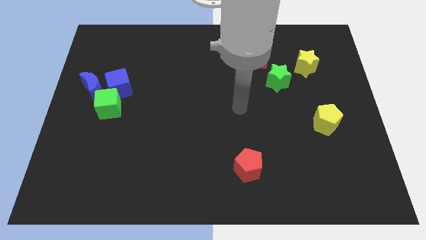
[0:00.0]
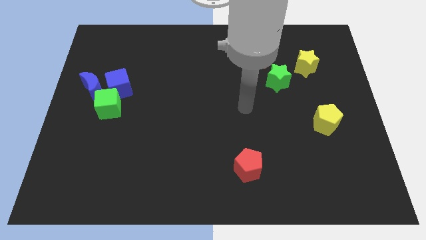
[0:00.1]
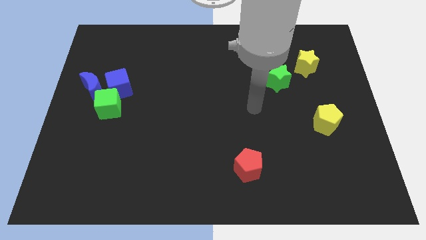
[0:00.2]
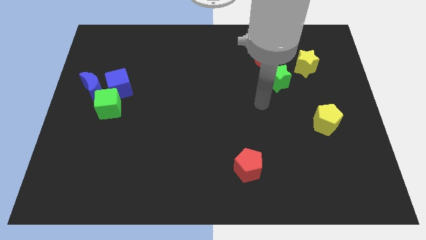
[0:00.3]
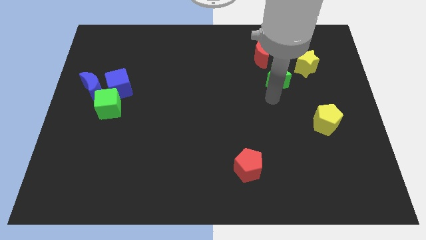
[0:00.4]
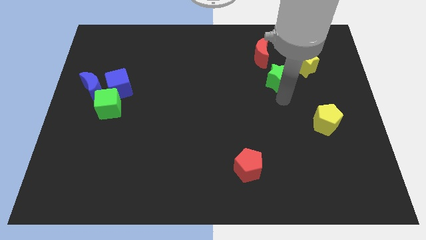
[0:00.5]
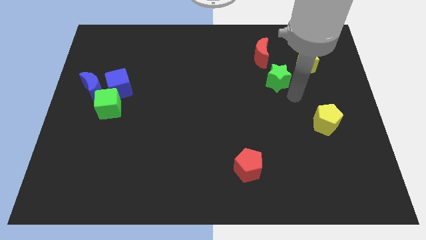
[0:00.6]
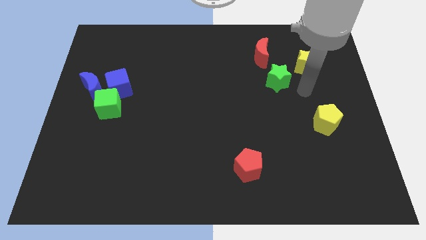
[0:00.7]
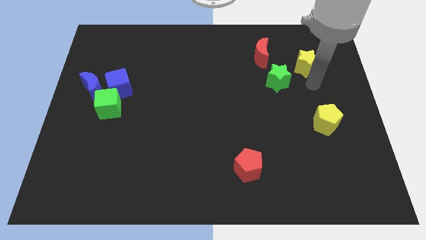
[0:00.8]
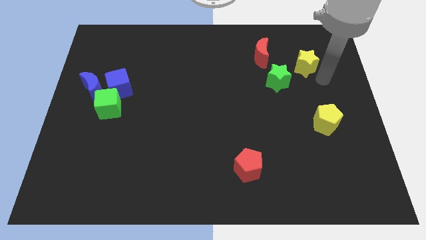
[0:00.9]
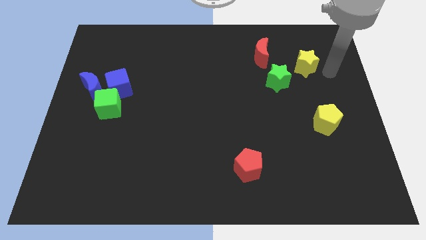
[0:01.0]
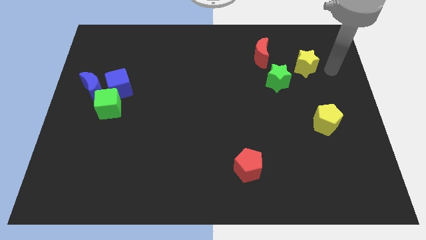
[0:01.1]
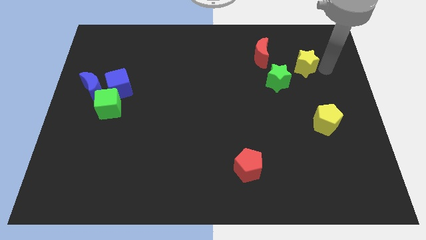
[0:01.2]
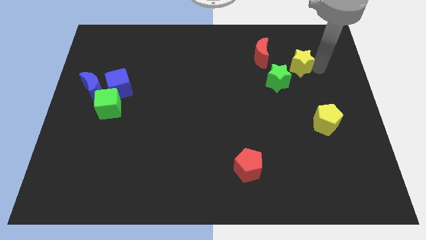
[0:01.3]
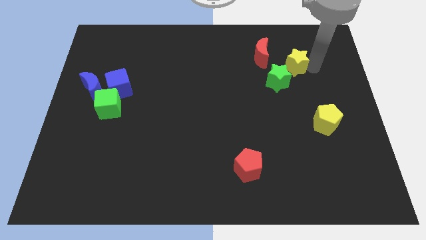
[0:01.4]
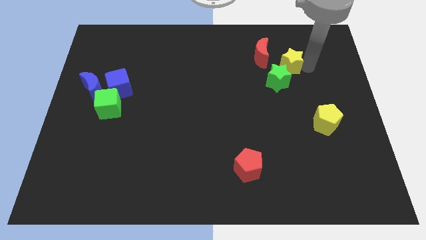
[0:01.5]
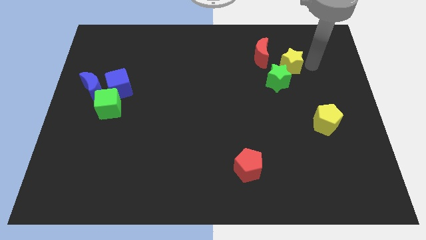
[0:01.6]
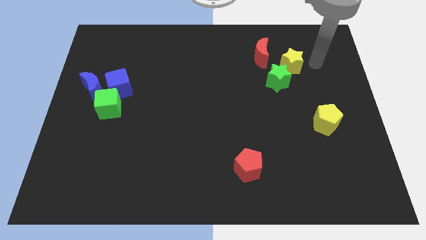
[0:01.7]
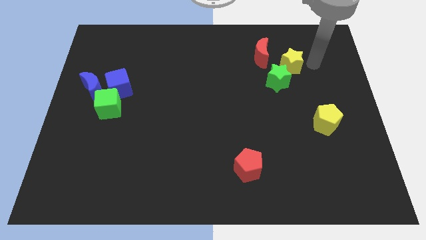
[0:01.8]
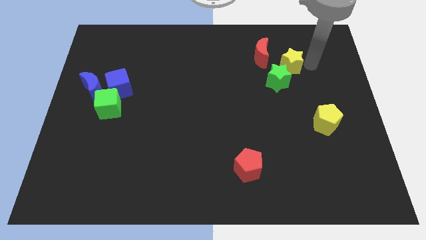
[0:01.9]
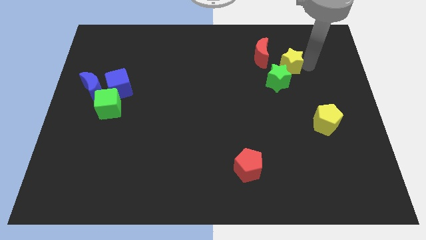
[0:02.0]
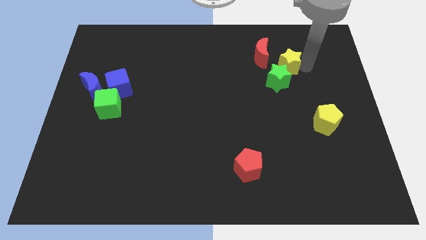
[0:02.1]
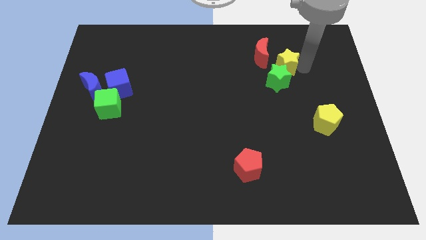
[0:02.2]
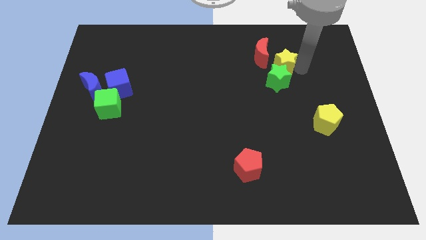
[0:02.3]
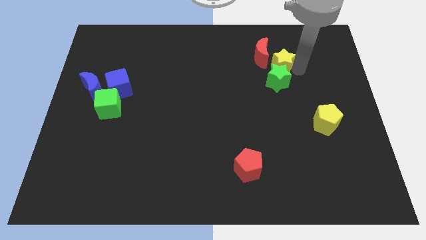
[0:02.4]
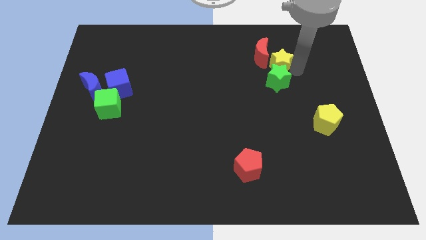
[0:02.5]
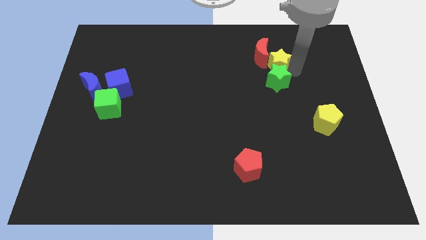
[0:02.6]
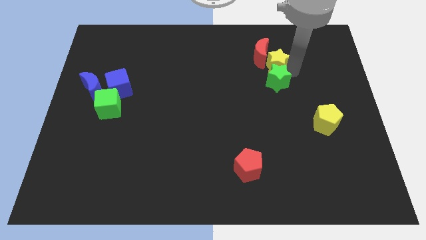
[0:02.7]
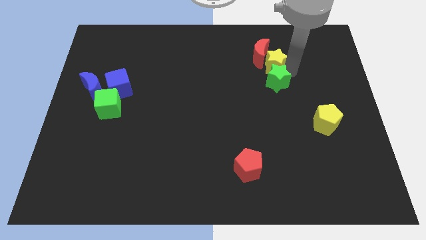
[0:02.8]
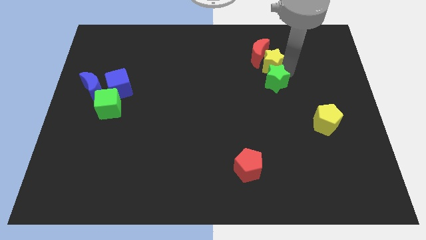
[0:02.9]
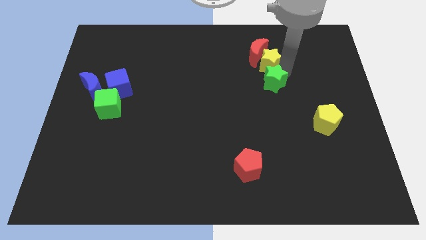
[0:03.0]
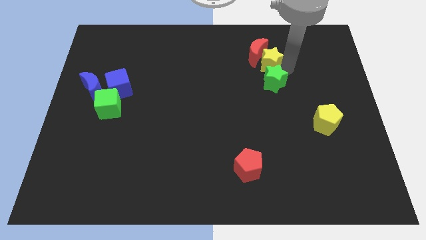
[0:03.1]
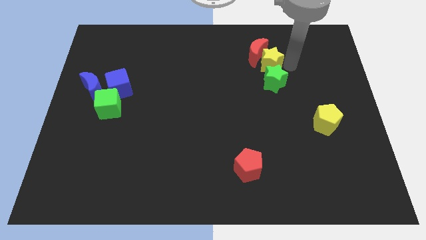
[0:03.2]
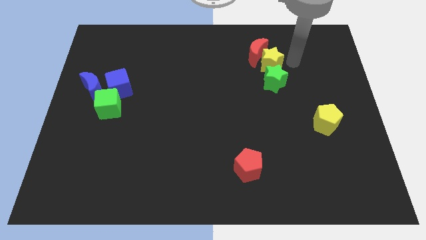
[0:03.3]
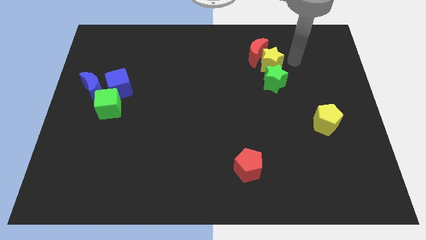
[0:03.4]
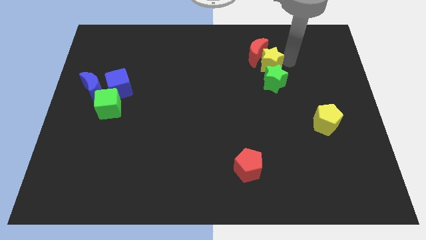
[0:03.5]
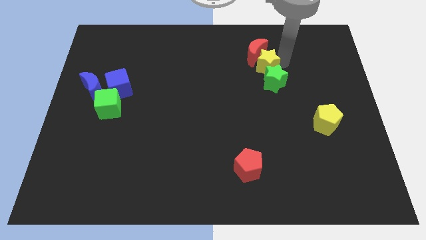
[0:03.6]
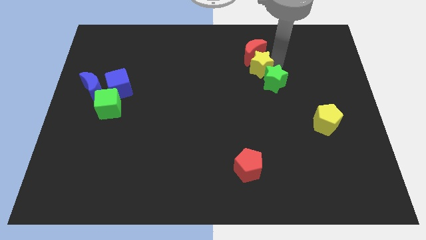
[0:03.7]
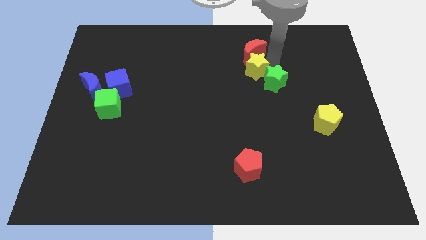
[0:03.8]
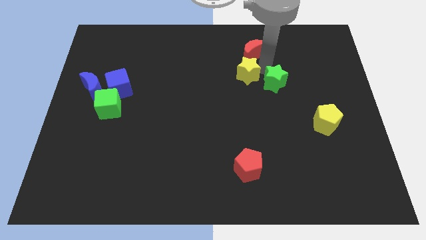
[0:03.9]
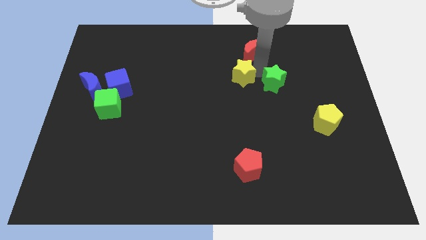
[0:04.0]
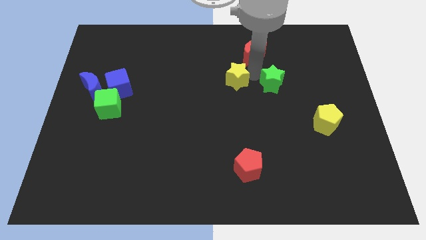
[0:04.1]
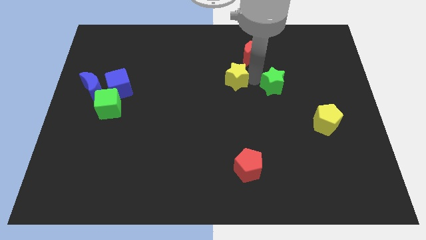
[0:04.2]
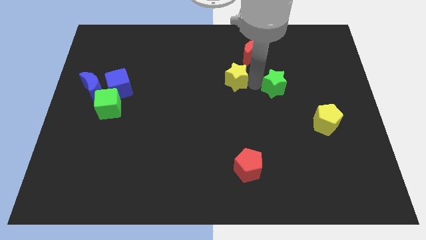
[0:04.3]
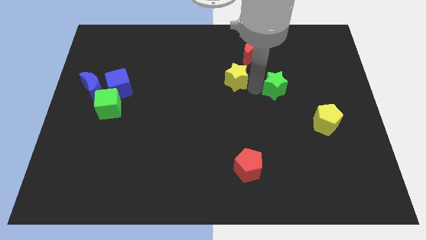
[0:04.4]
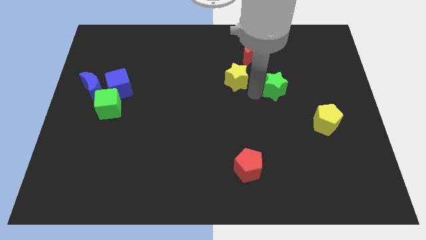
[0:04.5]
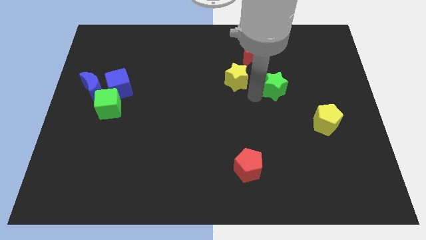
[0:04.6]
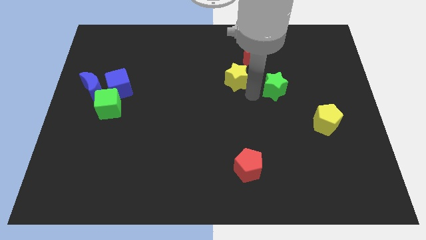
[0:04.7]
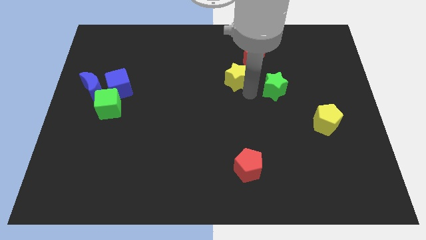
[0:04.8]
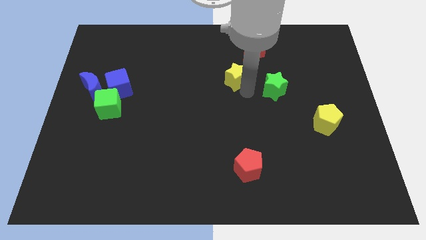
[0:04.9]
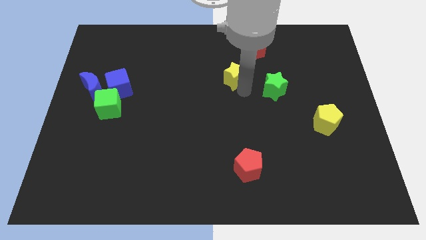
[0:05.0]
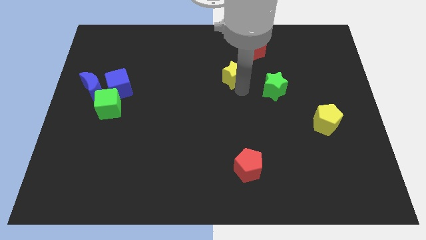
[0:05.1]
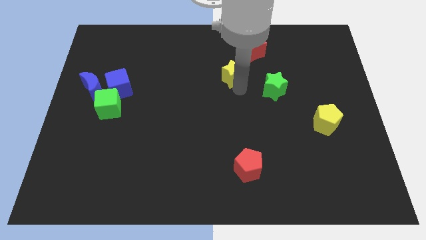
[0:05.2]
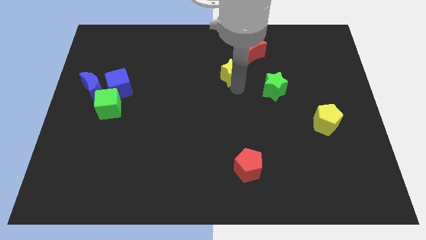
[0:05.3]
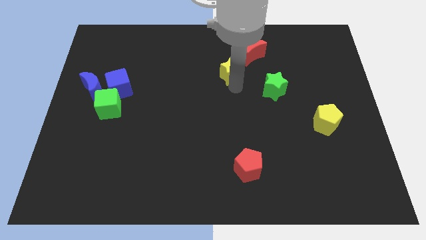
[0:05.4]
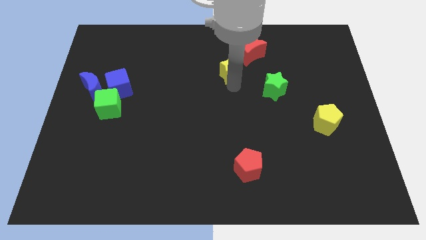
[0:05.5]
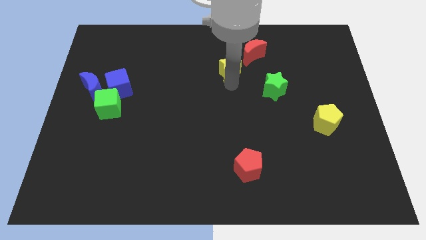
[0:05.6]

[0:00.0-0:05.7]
slide the yellow star to the left

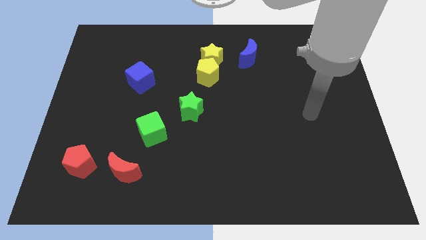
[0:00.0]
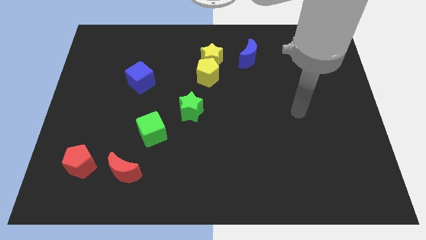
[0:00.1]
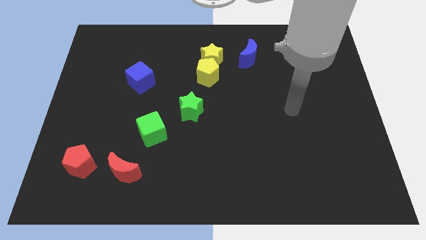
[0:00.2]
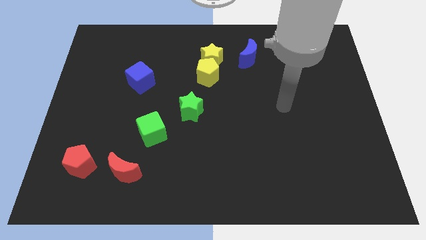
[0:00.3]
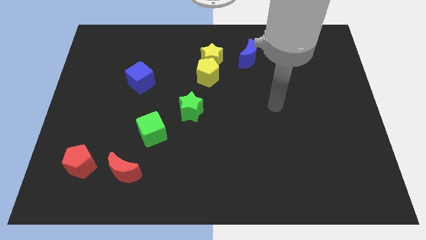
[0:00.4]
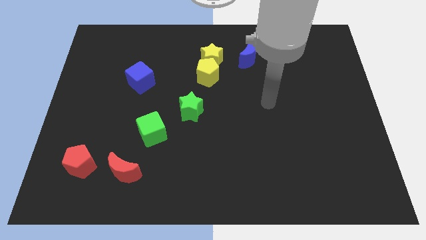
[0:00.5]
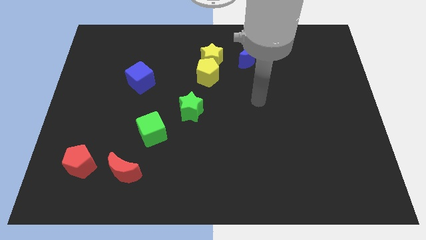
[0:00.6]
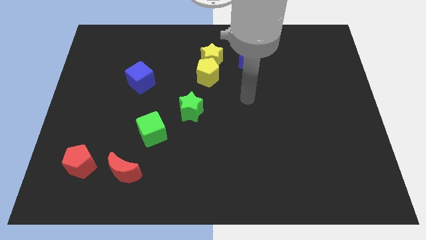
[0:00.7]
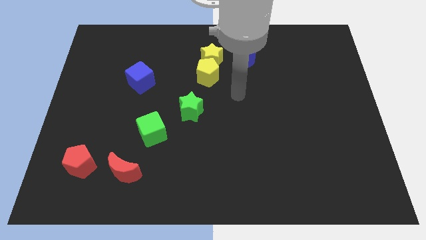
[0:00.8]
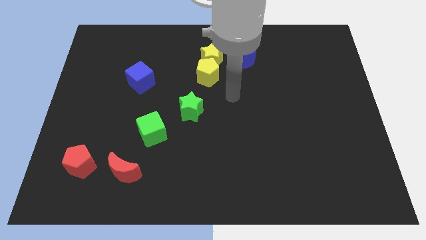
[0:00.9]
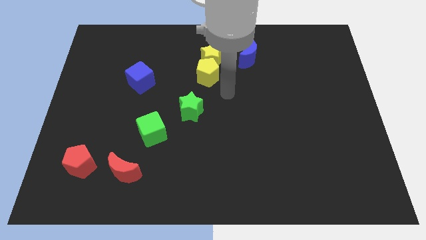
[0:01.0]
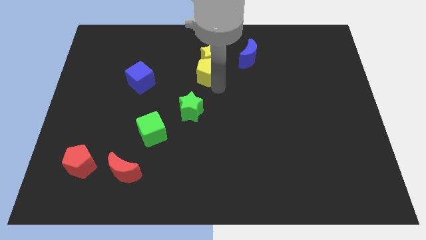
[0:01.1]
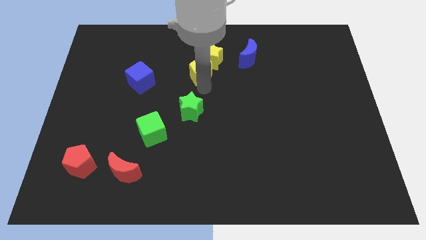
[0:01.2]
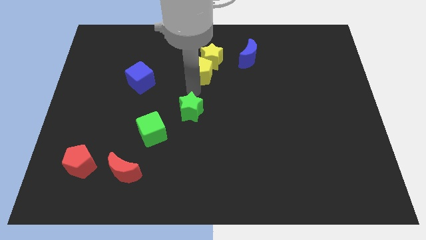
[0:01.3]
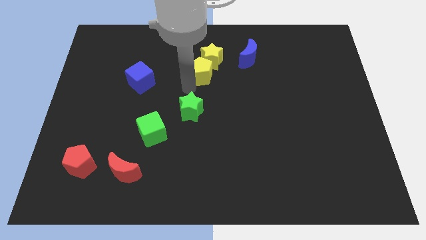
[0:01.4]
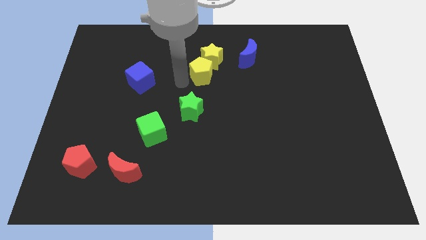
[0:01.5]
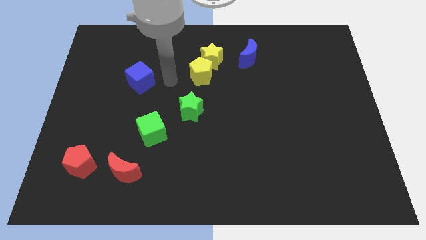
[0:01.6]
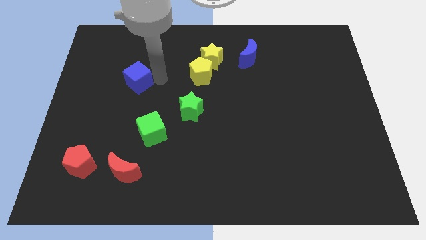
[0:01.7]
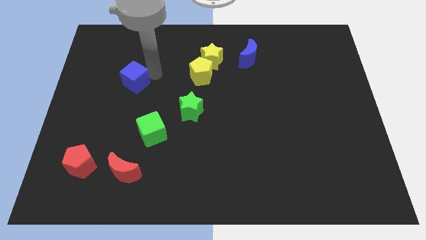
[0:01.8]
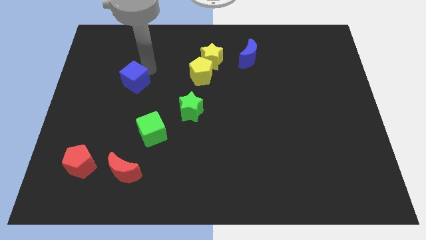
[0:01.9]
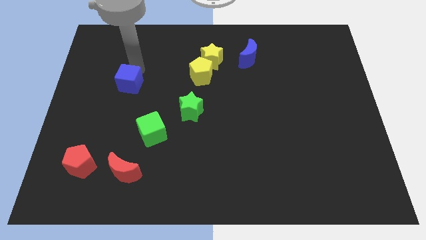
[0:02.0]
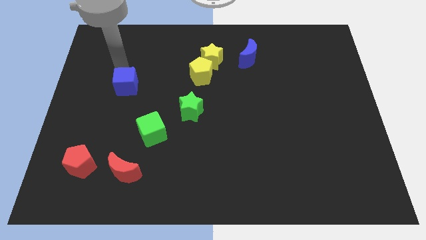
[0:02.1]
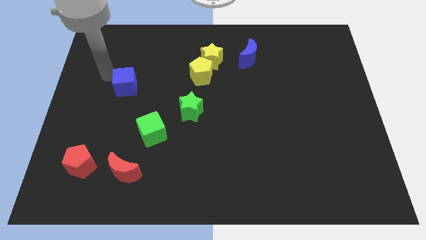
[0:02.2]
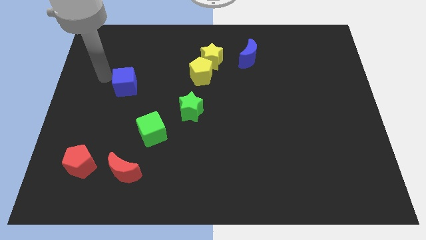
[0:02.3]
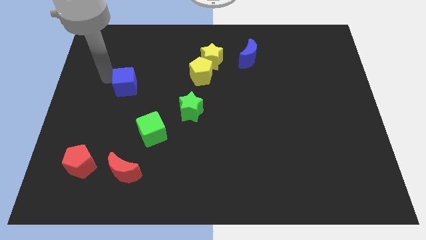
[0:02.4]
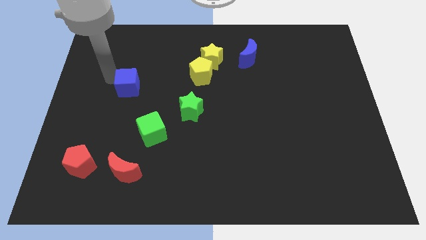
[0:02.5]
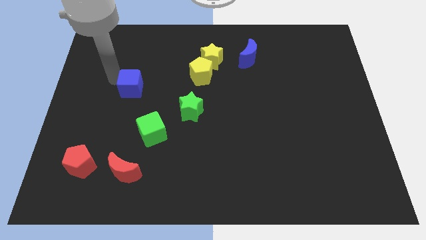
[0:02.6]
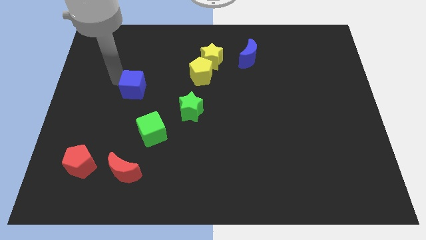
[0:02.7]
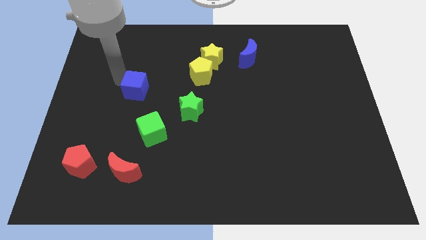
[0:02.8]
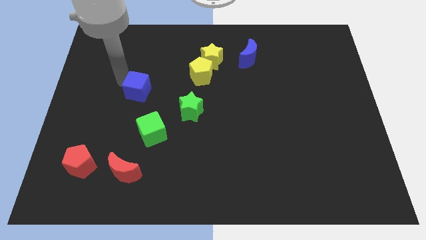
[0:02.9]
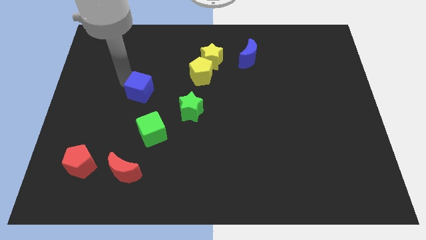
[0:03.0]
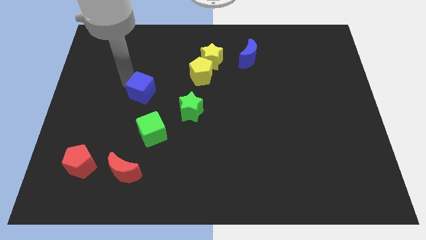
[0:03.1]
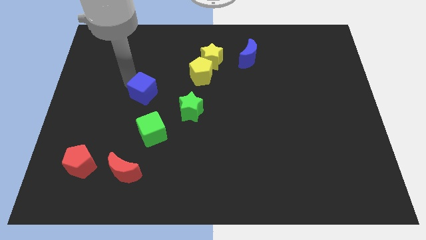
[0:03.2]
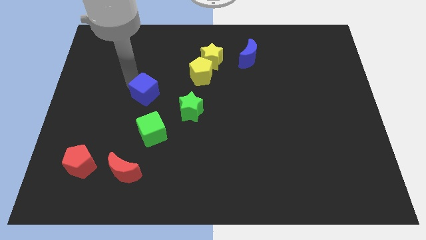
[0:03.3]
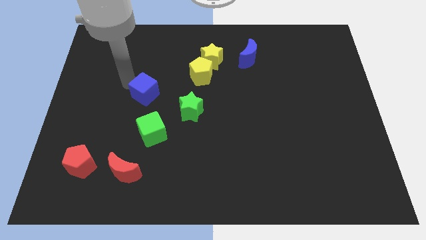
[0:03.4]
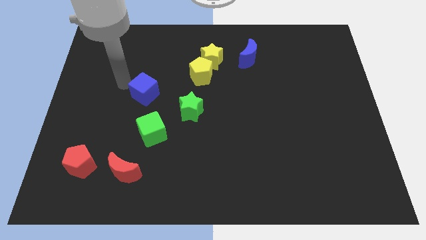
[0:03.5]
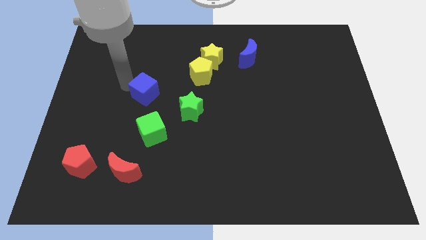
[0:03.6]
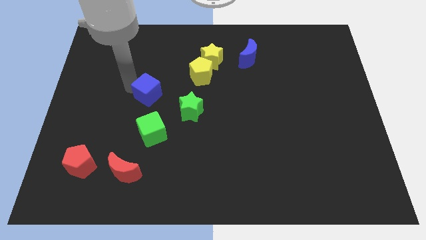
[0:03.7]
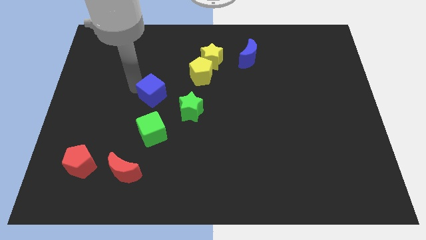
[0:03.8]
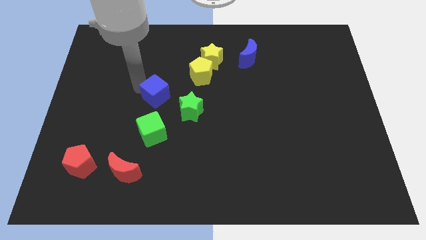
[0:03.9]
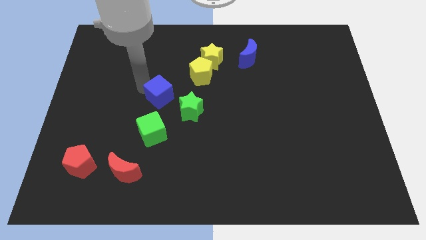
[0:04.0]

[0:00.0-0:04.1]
move the blue cube downwards and then right a little bit
